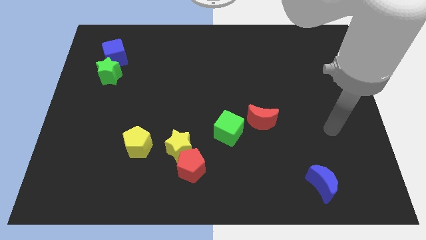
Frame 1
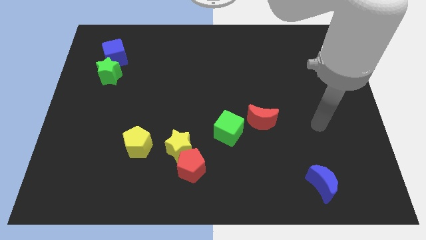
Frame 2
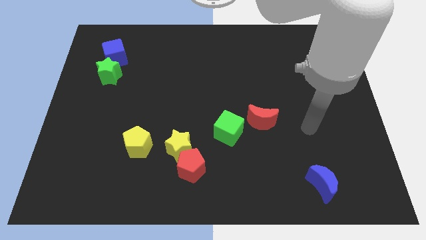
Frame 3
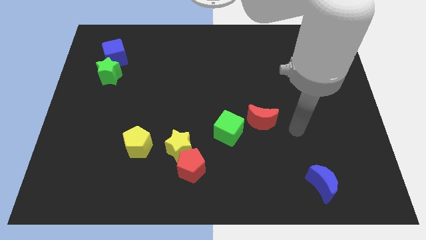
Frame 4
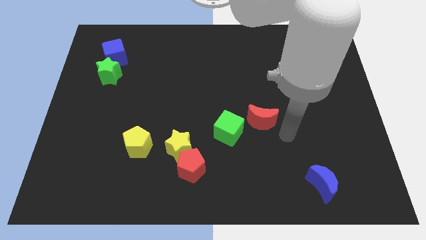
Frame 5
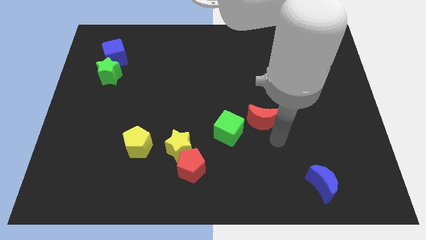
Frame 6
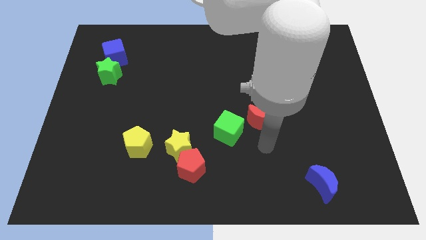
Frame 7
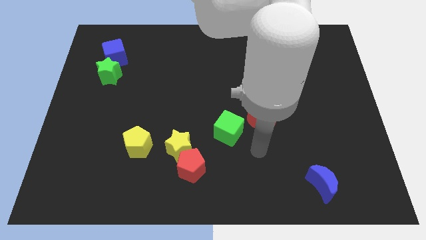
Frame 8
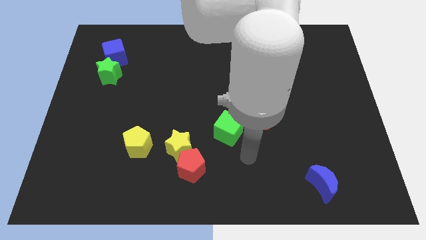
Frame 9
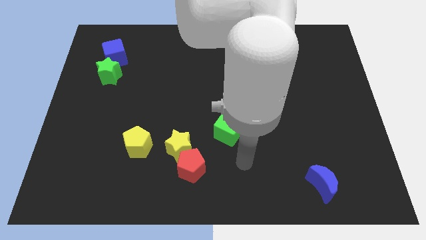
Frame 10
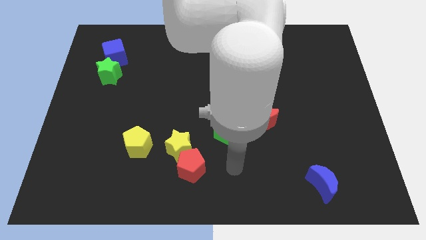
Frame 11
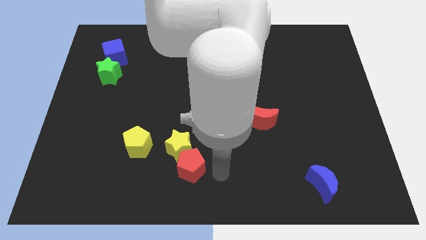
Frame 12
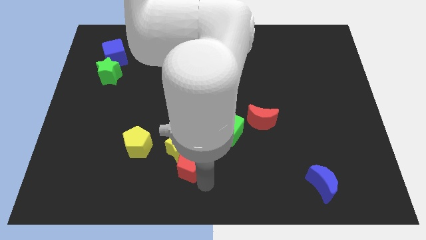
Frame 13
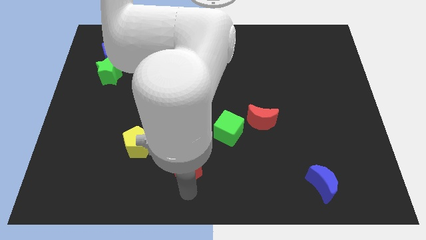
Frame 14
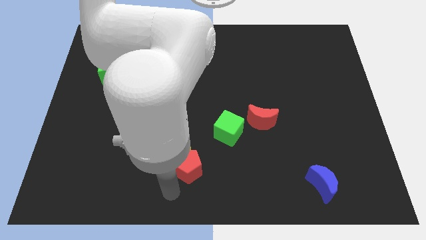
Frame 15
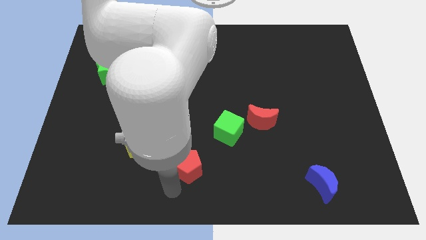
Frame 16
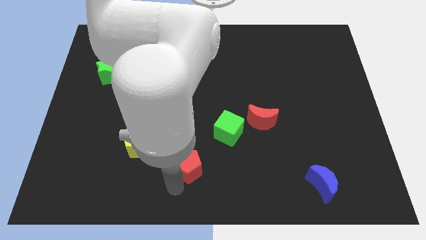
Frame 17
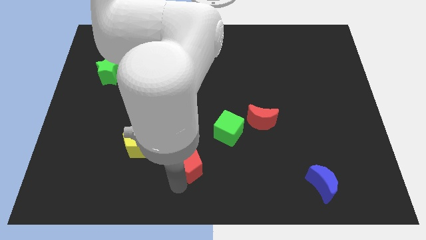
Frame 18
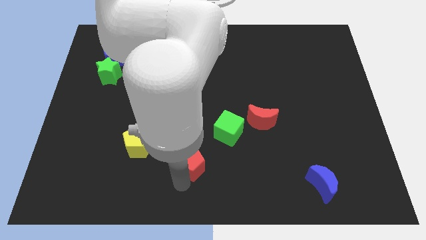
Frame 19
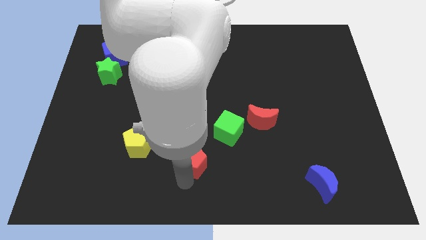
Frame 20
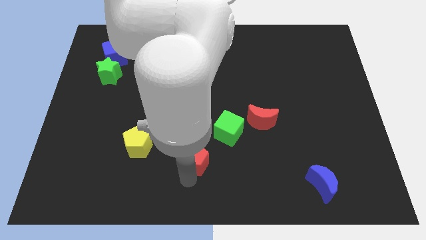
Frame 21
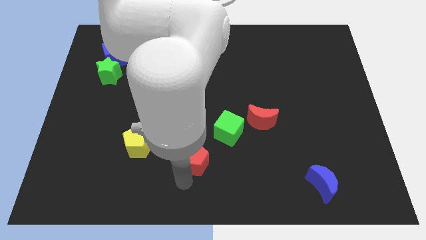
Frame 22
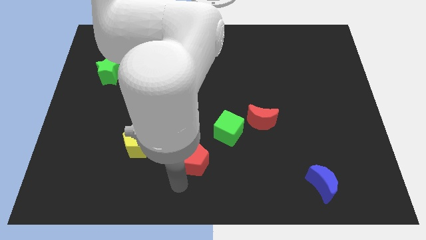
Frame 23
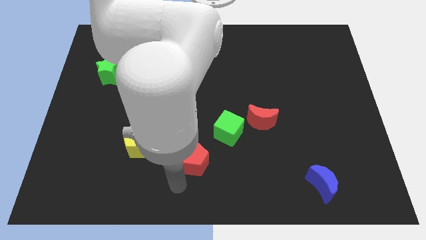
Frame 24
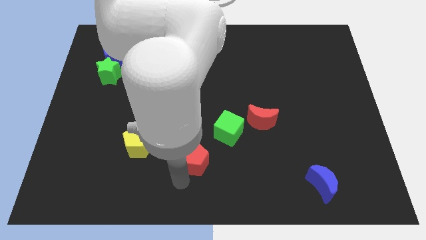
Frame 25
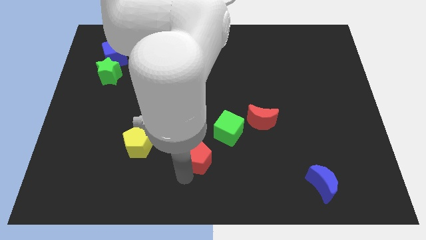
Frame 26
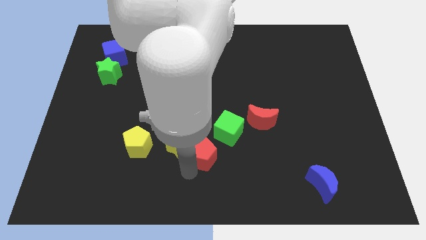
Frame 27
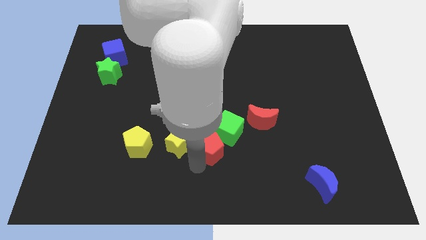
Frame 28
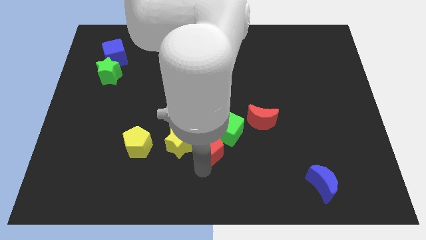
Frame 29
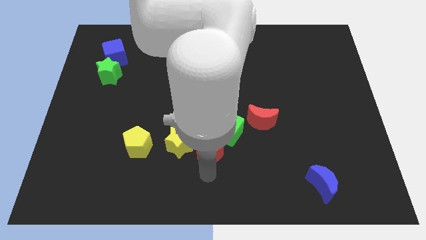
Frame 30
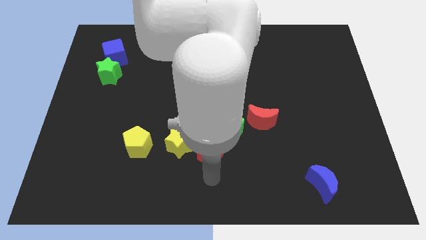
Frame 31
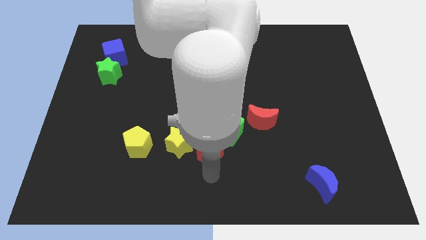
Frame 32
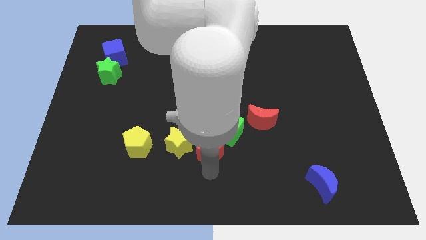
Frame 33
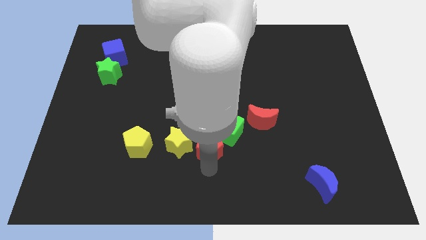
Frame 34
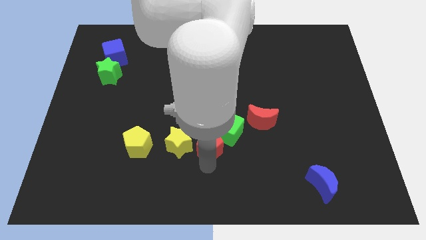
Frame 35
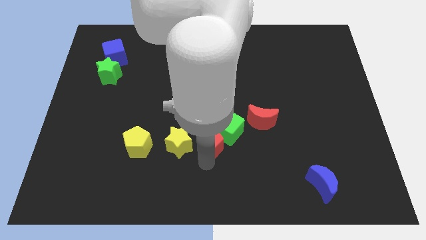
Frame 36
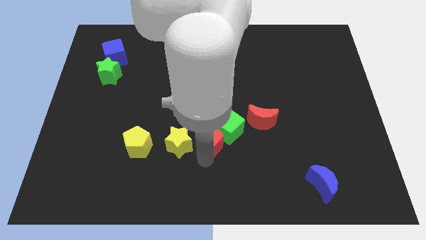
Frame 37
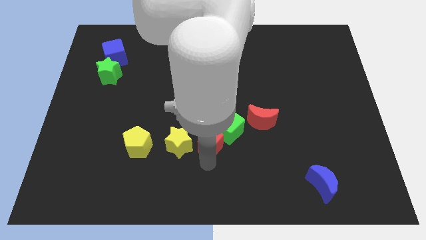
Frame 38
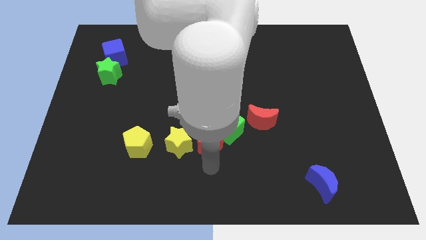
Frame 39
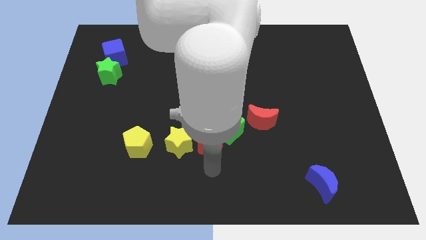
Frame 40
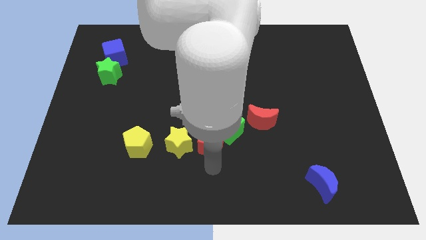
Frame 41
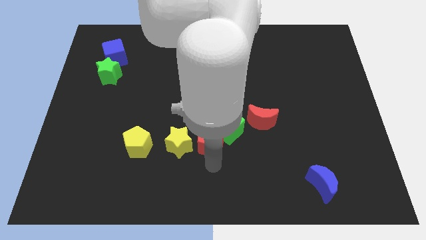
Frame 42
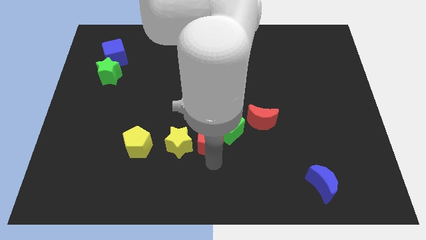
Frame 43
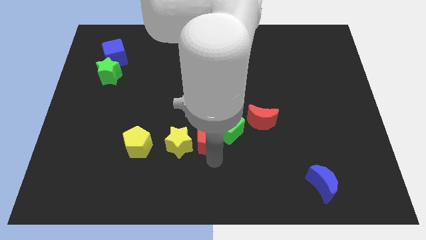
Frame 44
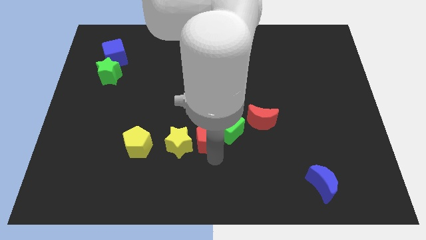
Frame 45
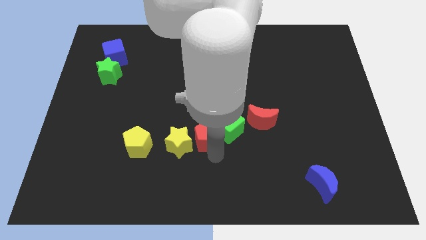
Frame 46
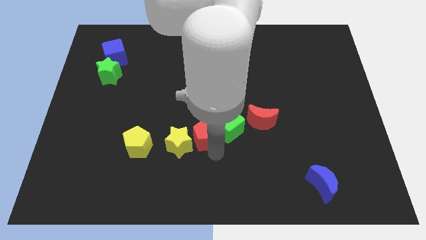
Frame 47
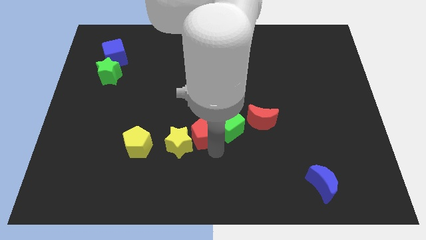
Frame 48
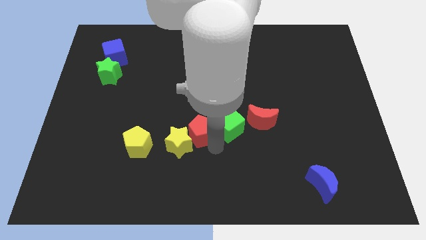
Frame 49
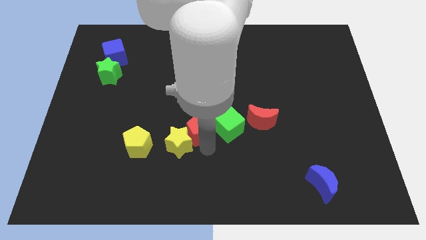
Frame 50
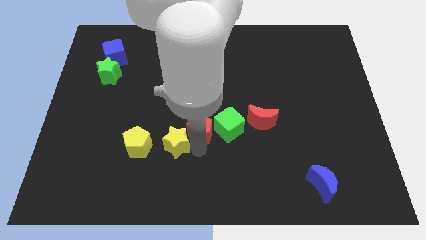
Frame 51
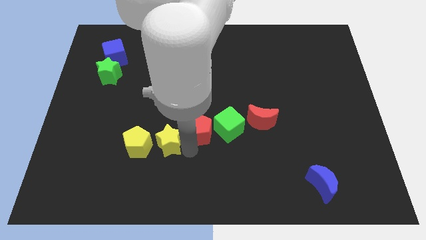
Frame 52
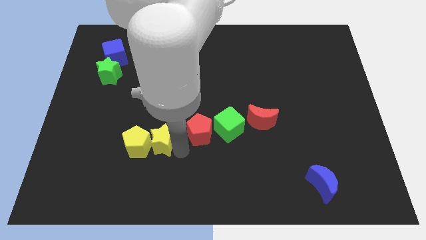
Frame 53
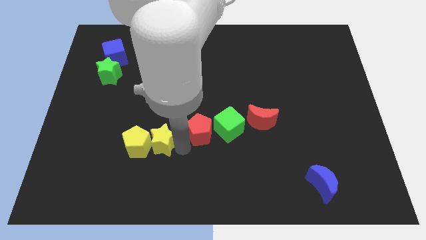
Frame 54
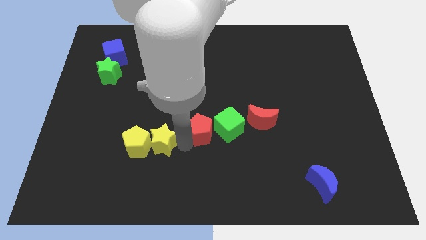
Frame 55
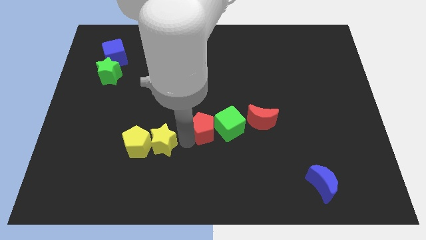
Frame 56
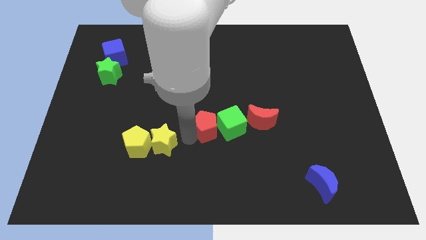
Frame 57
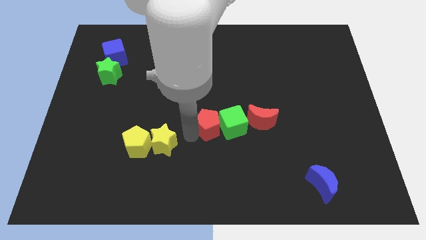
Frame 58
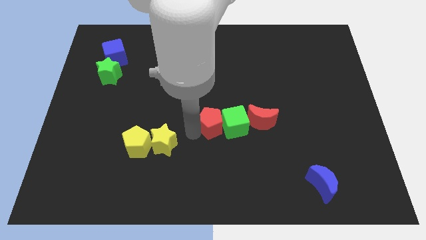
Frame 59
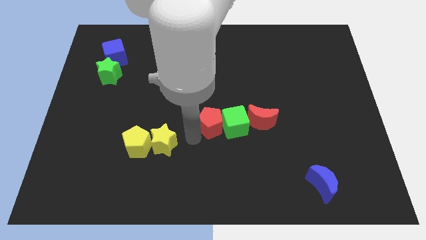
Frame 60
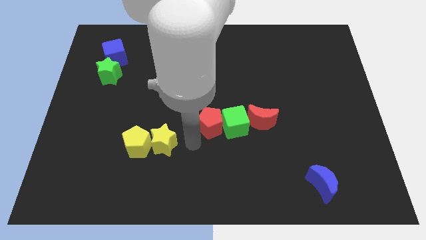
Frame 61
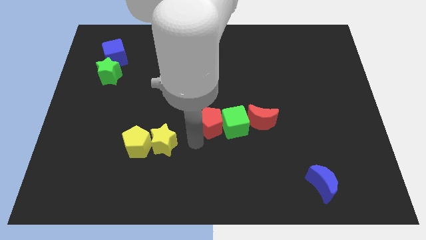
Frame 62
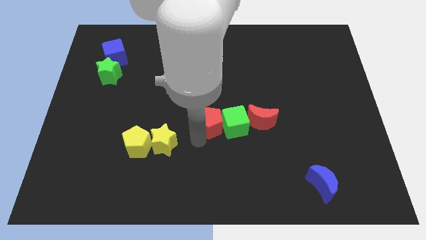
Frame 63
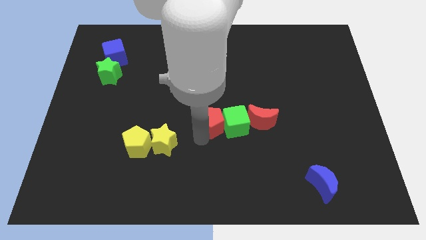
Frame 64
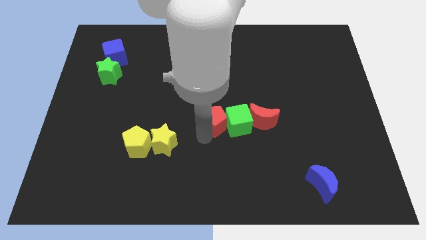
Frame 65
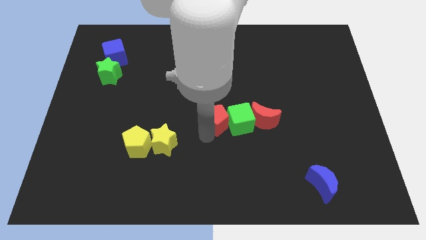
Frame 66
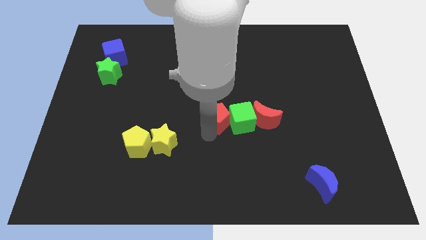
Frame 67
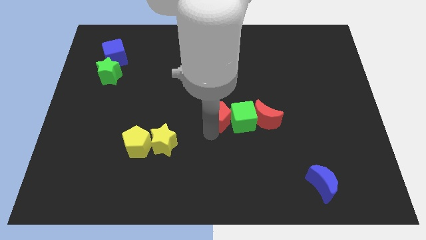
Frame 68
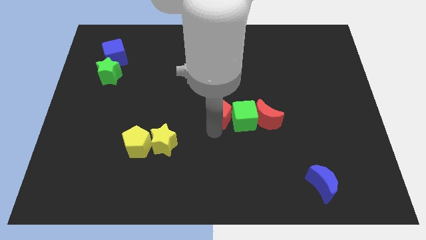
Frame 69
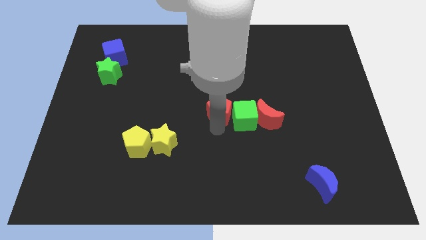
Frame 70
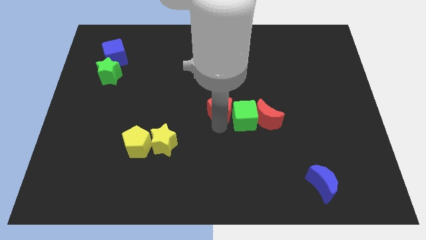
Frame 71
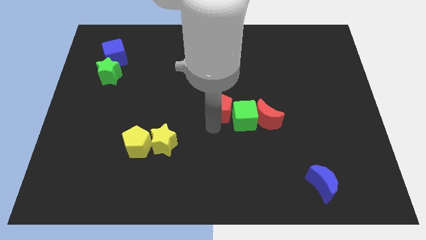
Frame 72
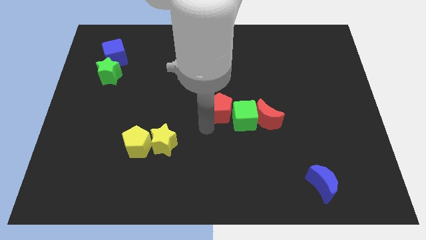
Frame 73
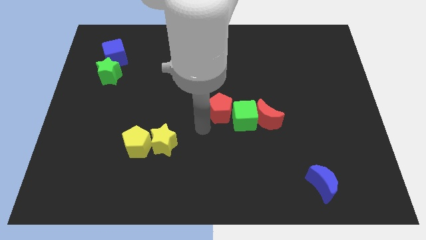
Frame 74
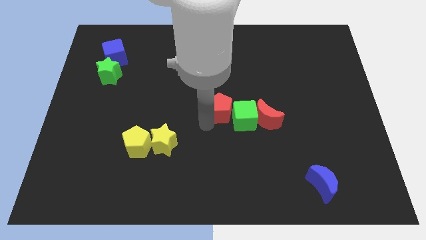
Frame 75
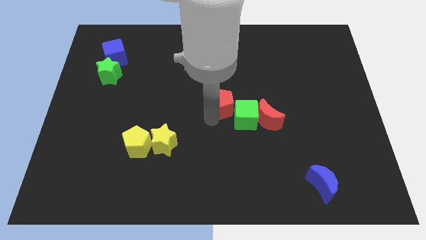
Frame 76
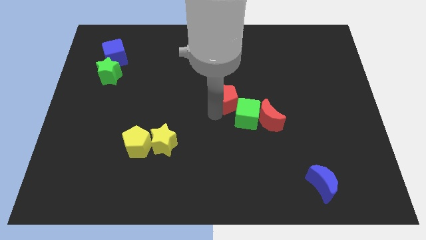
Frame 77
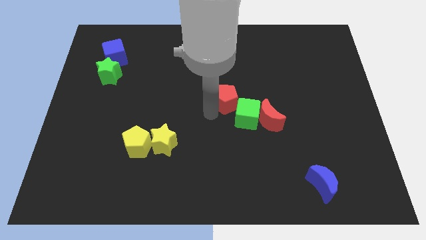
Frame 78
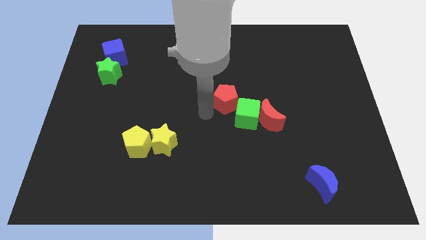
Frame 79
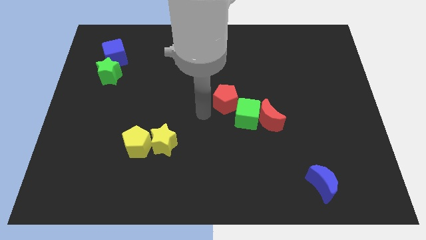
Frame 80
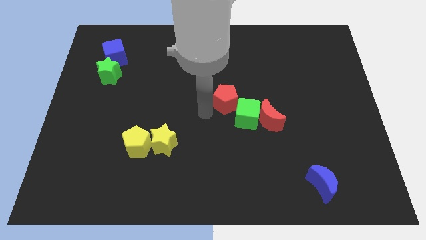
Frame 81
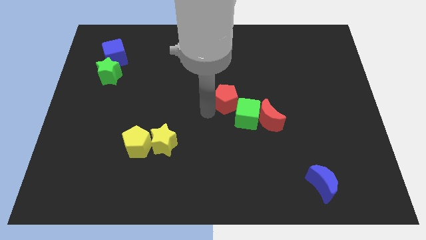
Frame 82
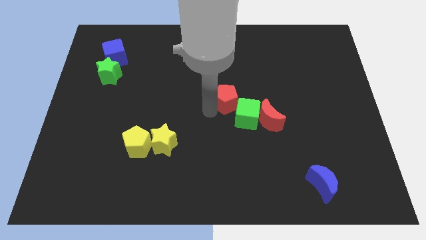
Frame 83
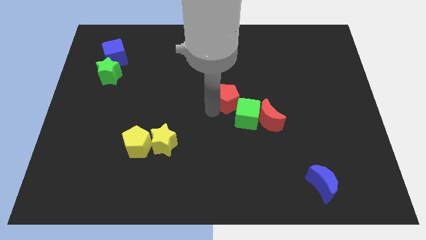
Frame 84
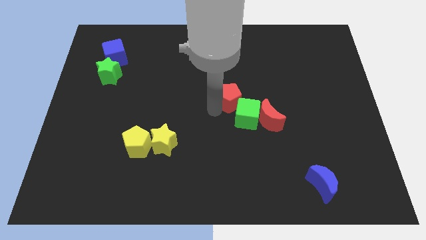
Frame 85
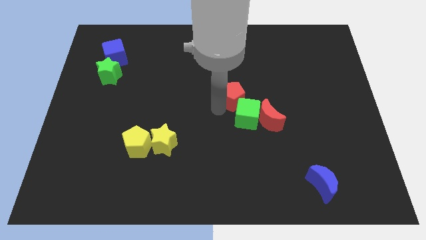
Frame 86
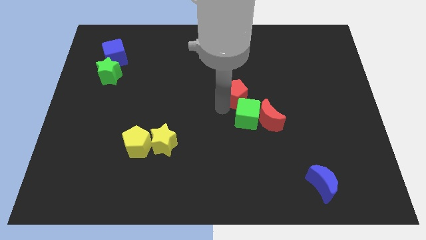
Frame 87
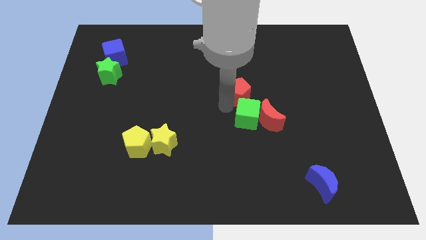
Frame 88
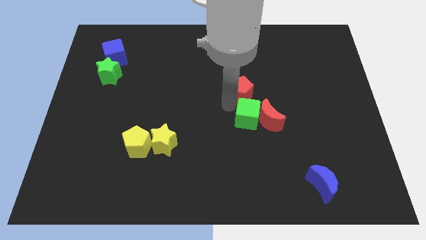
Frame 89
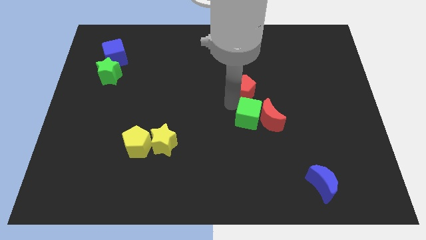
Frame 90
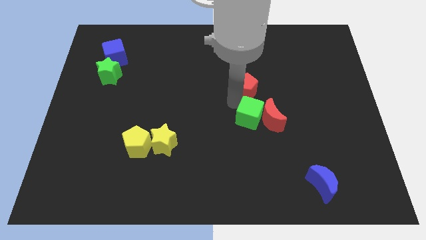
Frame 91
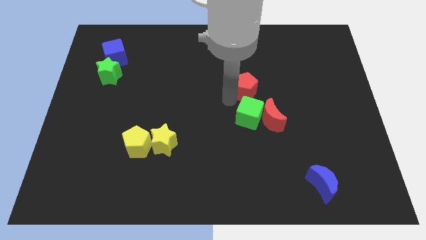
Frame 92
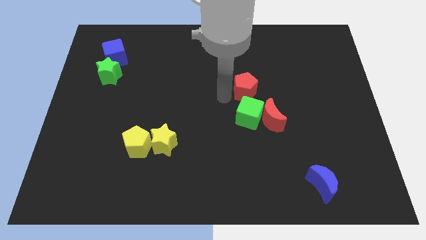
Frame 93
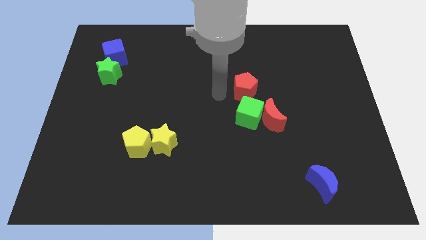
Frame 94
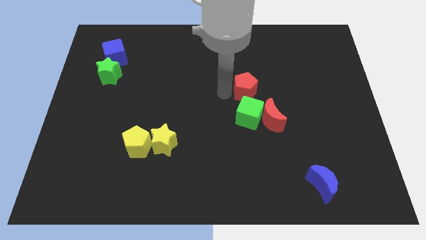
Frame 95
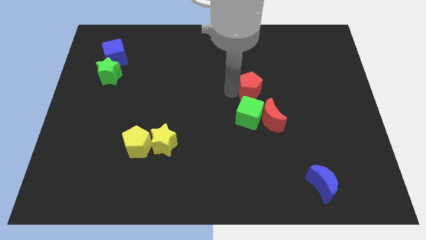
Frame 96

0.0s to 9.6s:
move the red pentagon to the top of the red moon
